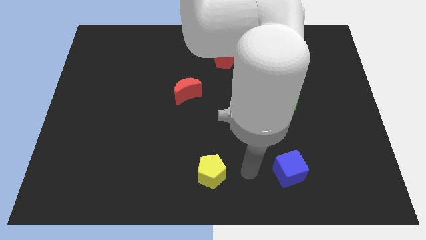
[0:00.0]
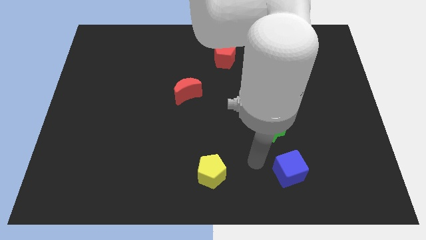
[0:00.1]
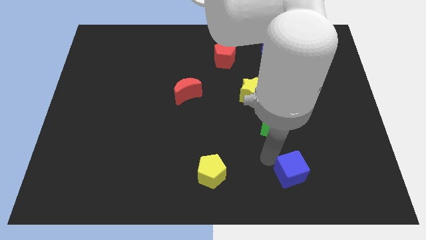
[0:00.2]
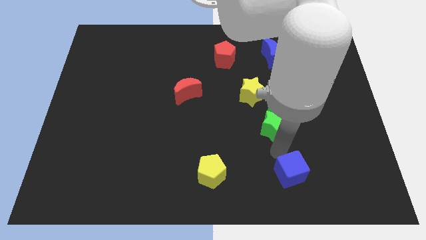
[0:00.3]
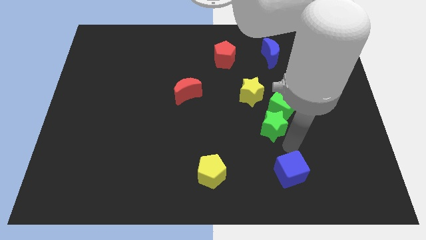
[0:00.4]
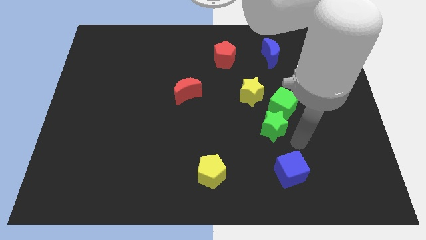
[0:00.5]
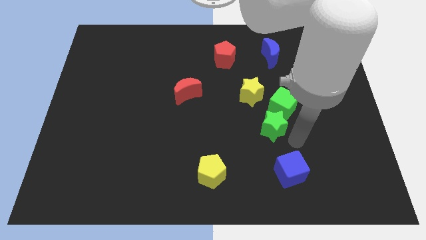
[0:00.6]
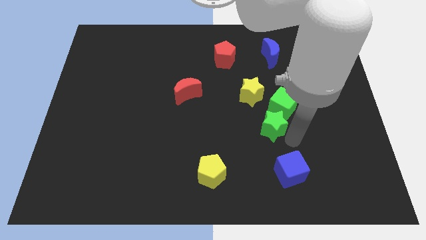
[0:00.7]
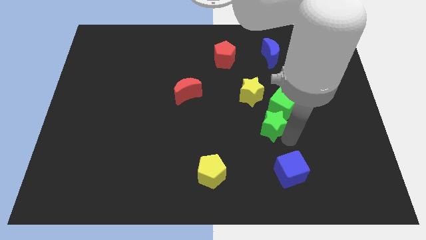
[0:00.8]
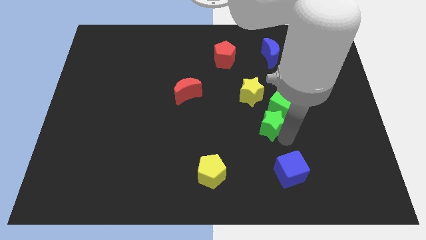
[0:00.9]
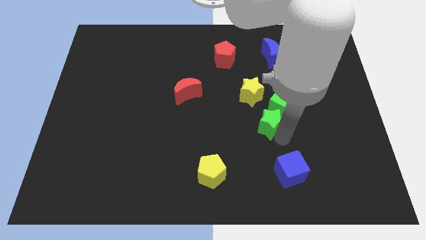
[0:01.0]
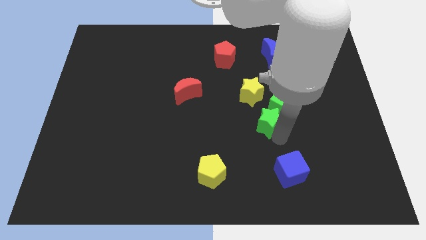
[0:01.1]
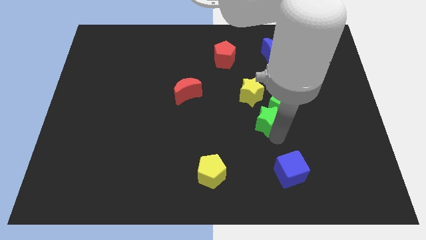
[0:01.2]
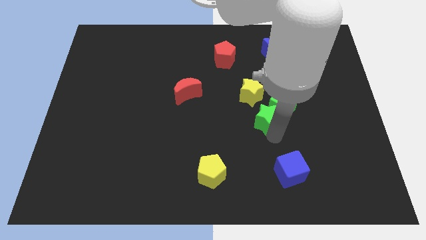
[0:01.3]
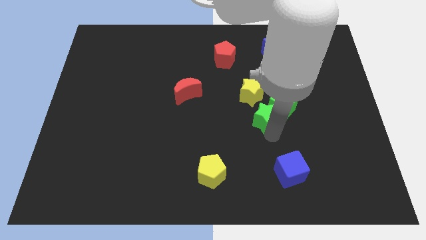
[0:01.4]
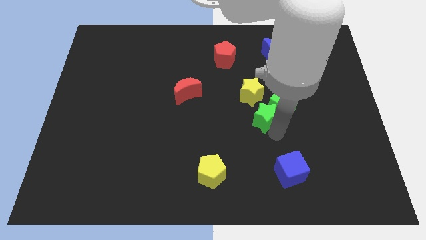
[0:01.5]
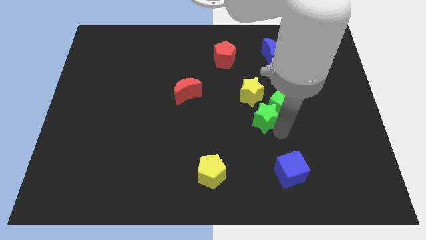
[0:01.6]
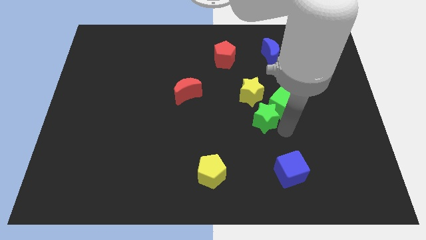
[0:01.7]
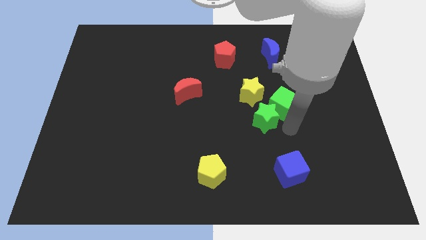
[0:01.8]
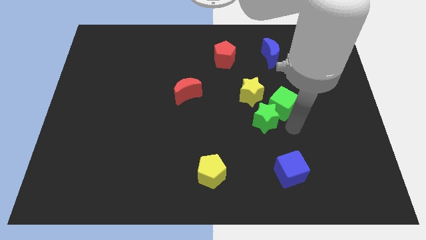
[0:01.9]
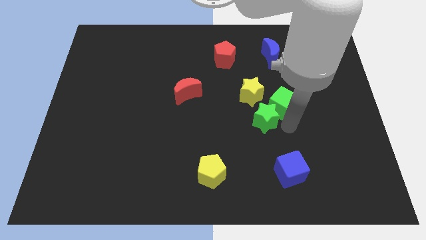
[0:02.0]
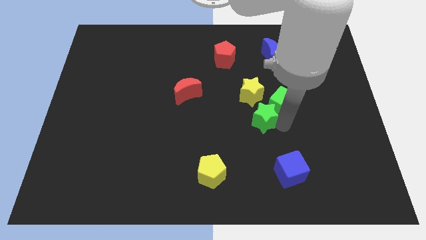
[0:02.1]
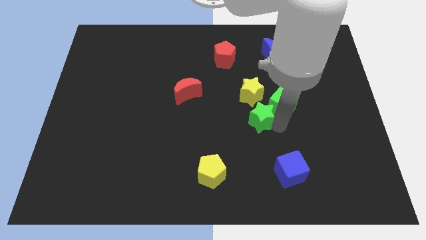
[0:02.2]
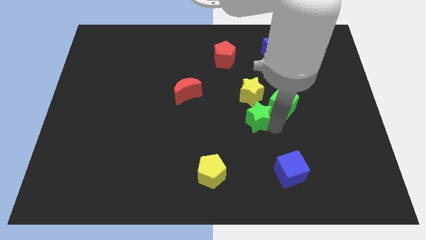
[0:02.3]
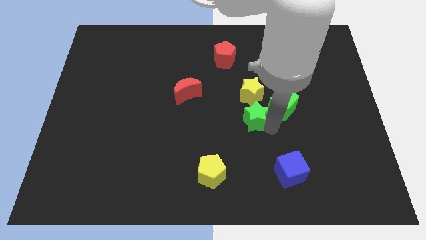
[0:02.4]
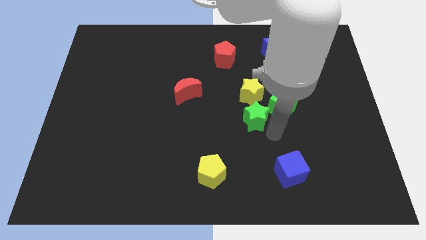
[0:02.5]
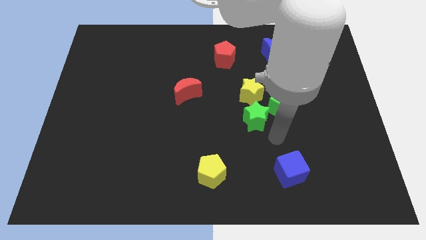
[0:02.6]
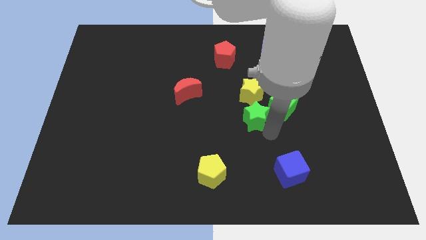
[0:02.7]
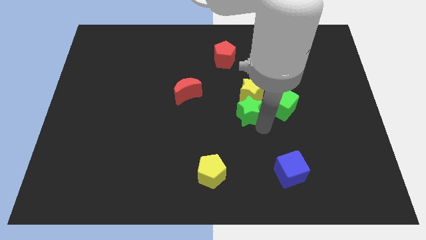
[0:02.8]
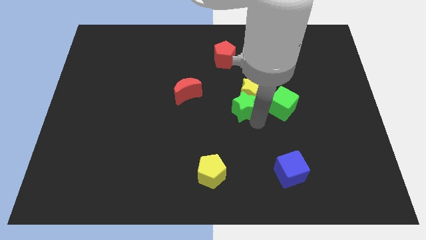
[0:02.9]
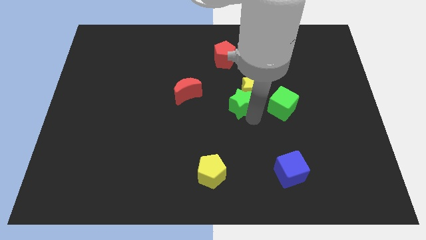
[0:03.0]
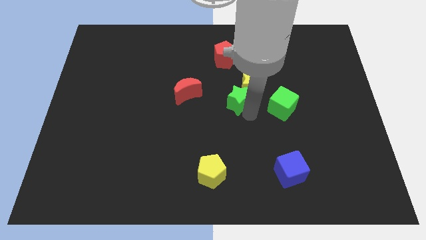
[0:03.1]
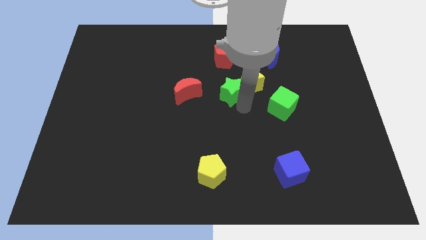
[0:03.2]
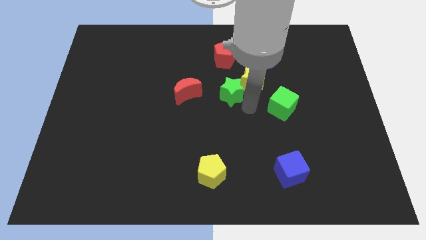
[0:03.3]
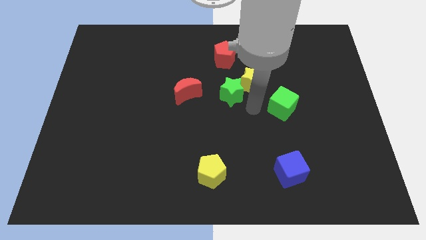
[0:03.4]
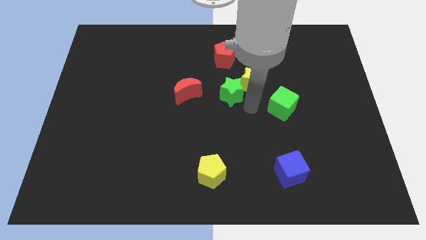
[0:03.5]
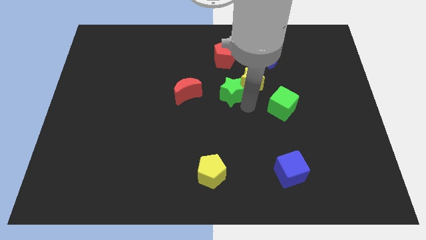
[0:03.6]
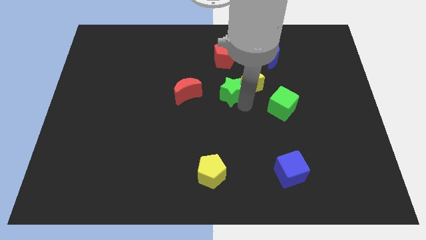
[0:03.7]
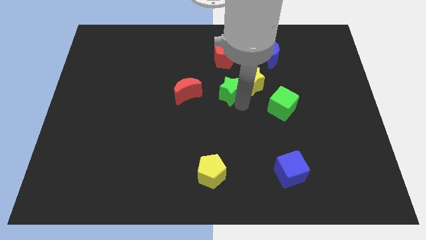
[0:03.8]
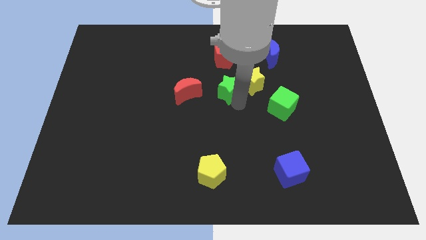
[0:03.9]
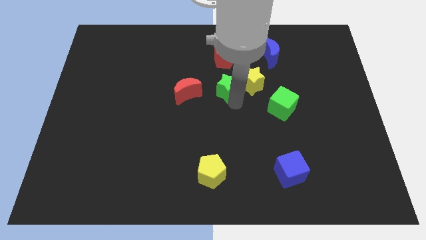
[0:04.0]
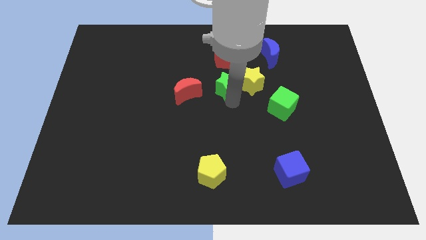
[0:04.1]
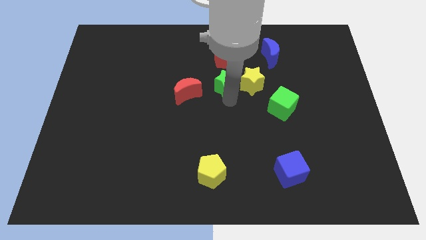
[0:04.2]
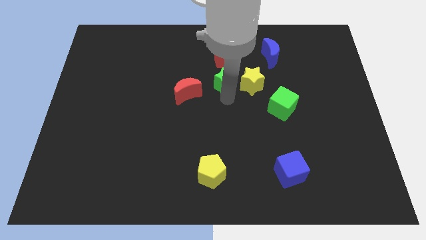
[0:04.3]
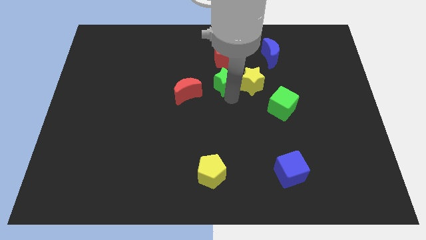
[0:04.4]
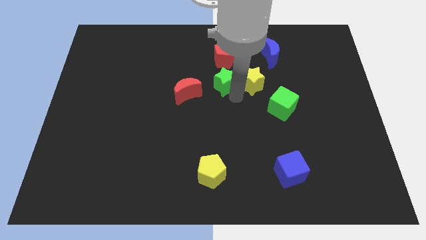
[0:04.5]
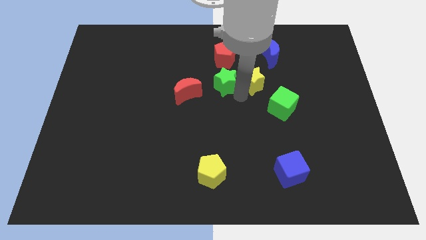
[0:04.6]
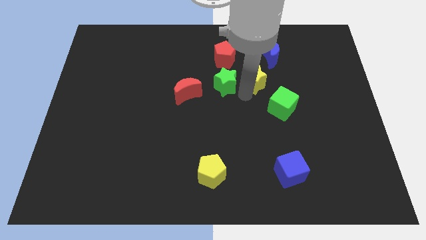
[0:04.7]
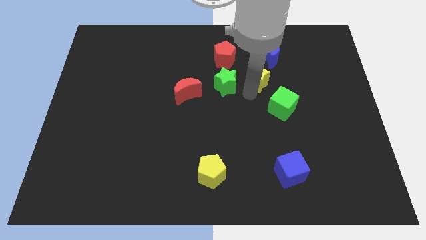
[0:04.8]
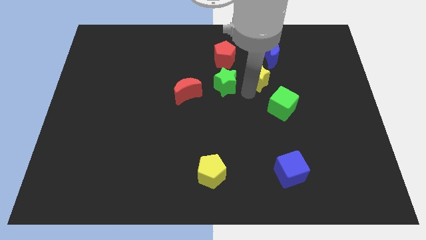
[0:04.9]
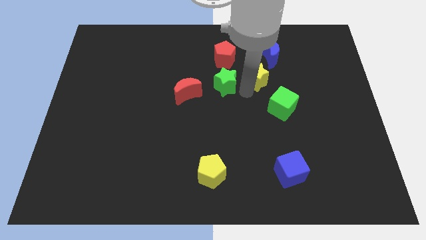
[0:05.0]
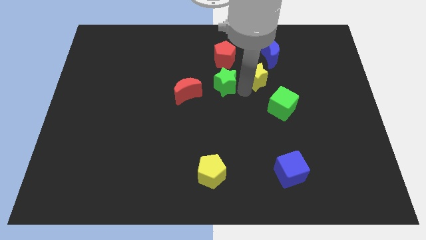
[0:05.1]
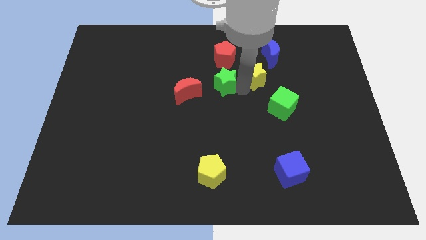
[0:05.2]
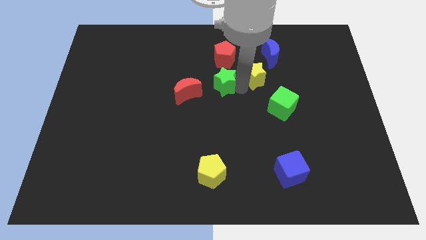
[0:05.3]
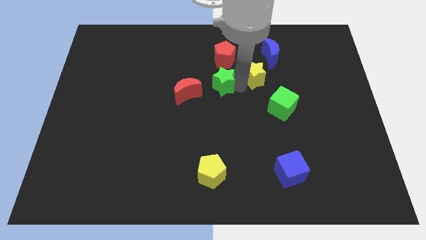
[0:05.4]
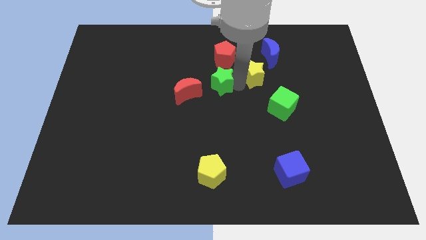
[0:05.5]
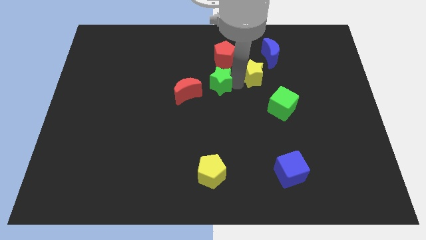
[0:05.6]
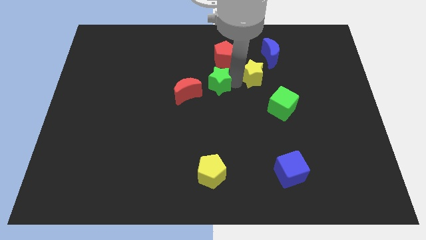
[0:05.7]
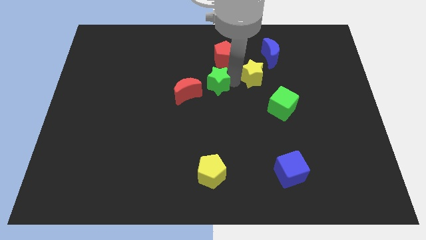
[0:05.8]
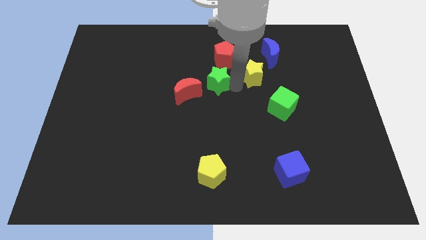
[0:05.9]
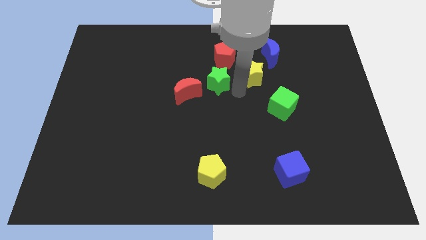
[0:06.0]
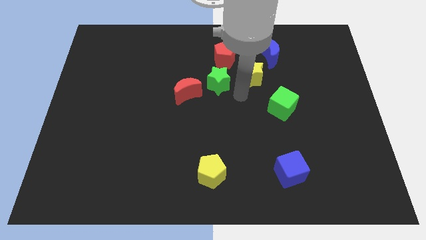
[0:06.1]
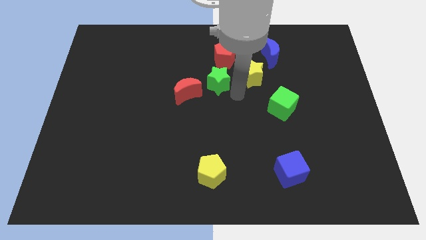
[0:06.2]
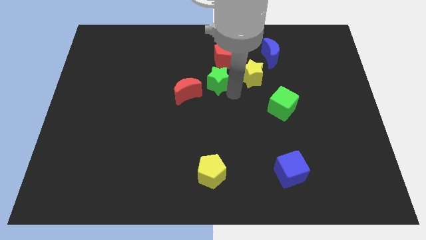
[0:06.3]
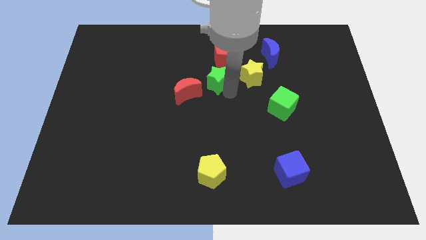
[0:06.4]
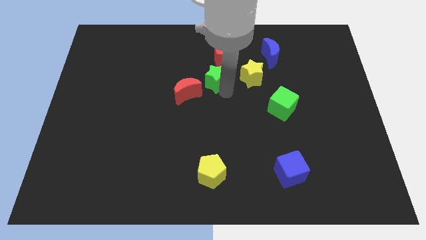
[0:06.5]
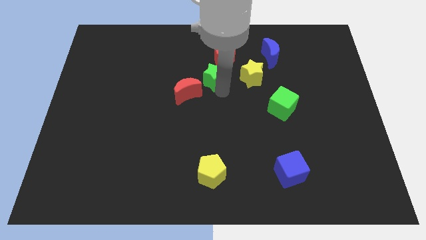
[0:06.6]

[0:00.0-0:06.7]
push the green star upwards and then left

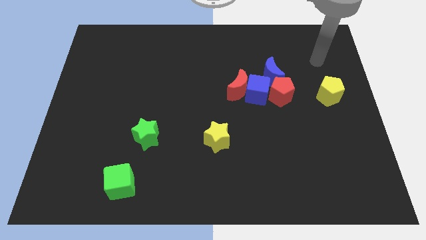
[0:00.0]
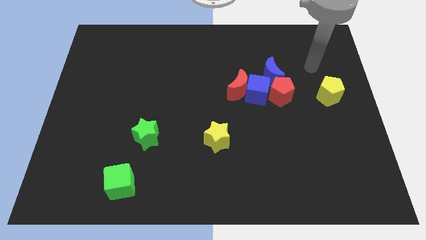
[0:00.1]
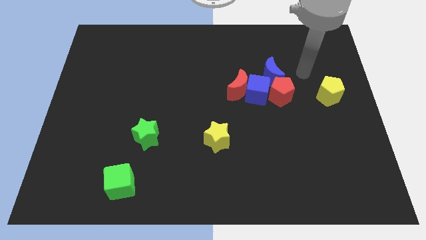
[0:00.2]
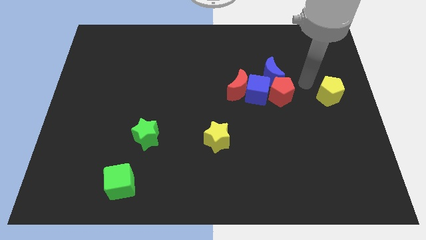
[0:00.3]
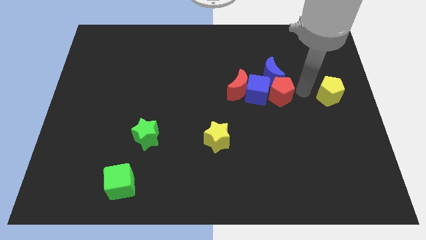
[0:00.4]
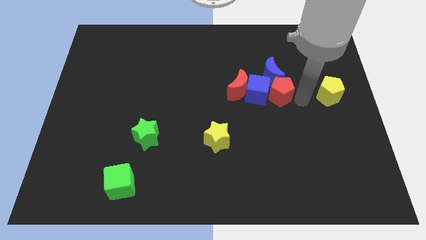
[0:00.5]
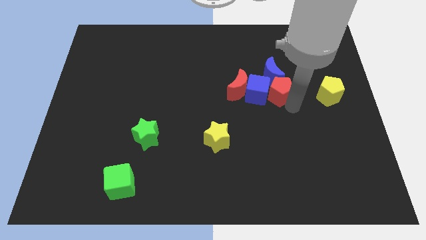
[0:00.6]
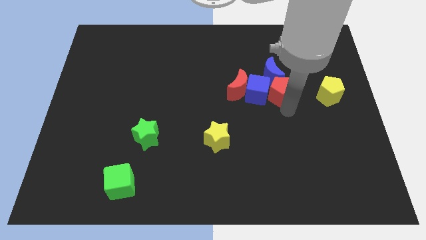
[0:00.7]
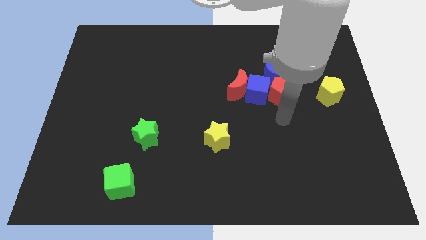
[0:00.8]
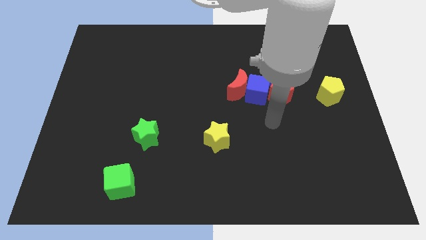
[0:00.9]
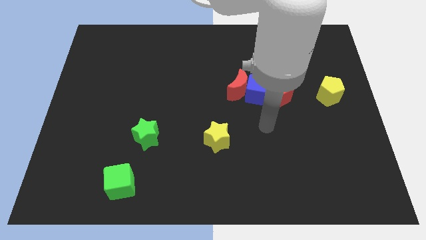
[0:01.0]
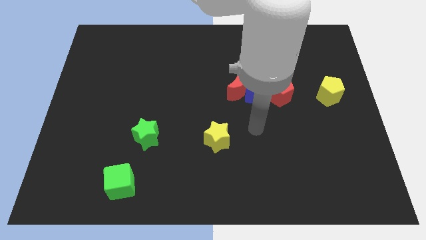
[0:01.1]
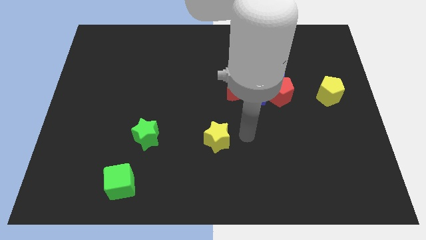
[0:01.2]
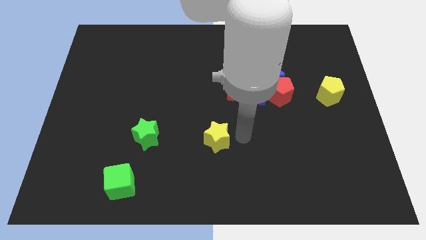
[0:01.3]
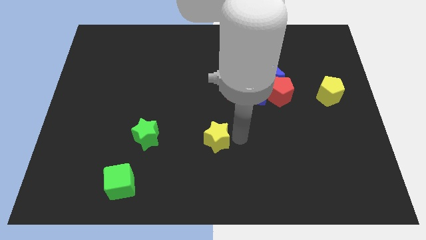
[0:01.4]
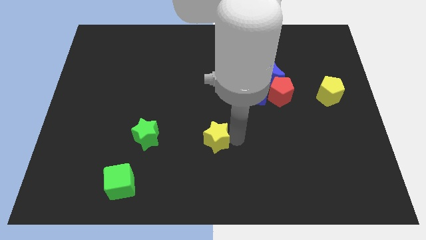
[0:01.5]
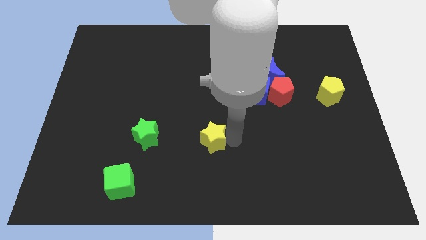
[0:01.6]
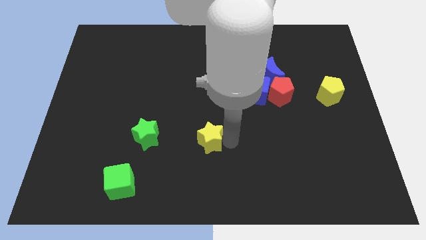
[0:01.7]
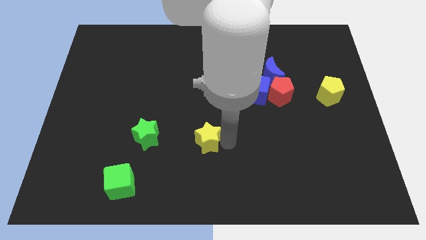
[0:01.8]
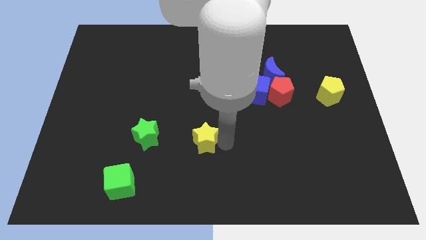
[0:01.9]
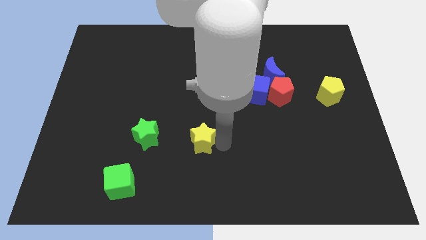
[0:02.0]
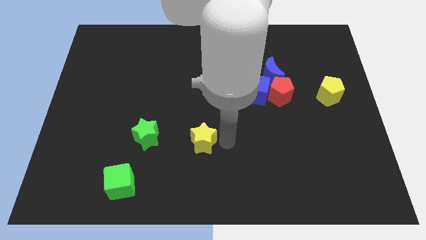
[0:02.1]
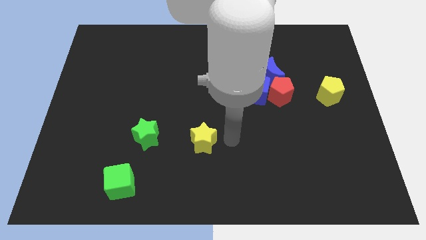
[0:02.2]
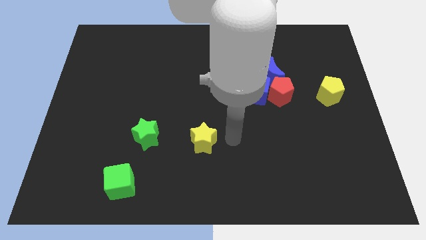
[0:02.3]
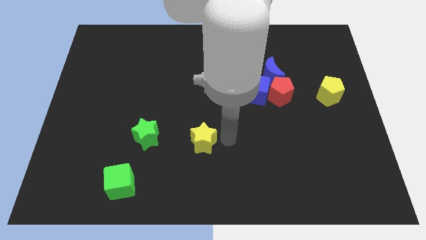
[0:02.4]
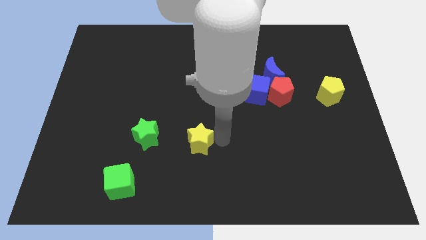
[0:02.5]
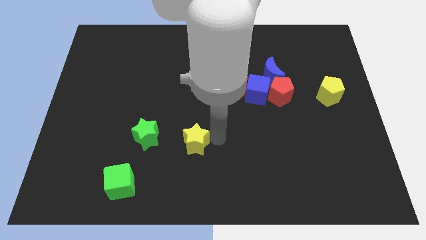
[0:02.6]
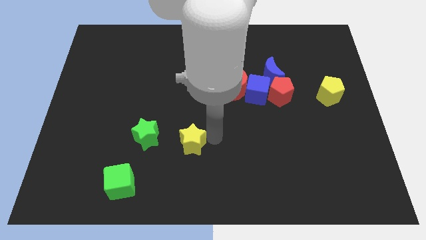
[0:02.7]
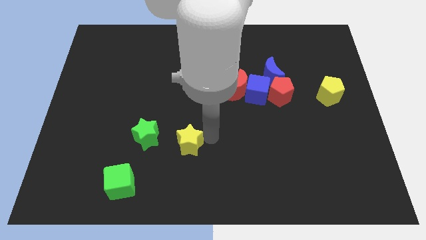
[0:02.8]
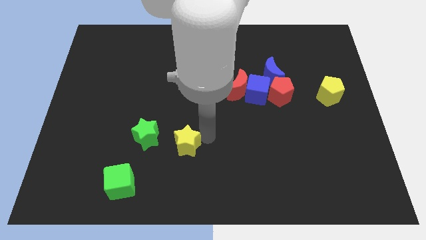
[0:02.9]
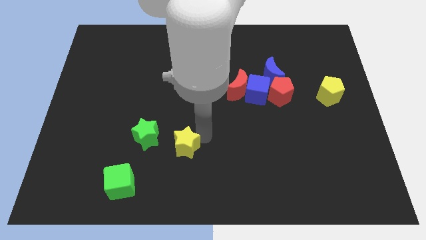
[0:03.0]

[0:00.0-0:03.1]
move the yellow star to the left a bit
